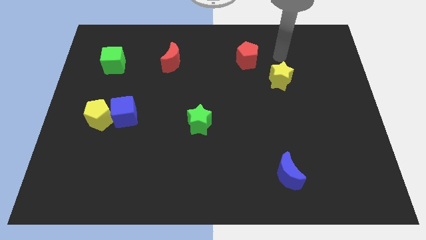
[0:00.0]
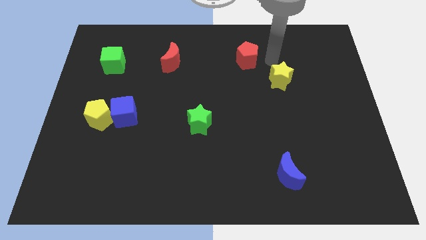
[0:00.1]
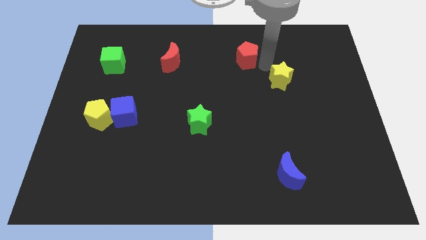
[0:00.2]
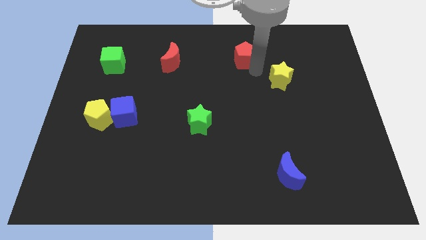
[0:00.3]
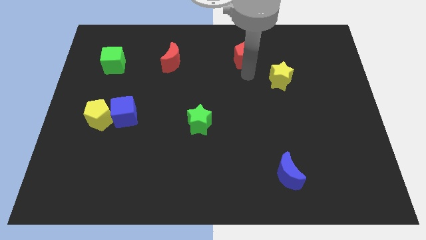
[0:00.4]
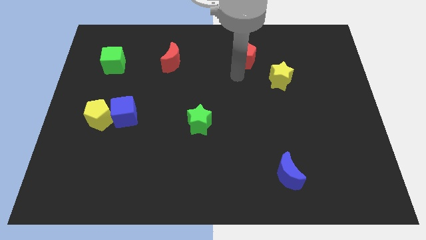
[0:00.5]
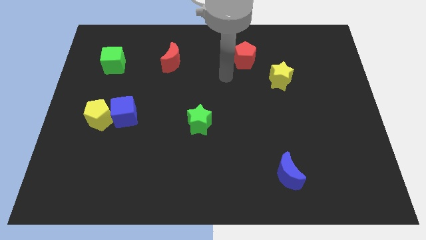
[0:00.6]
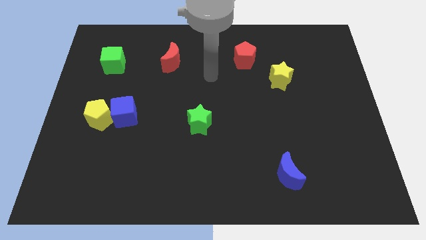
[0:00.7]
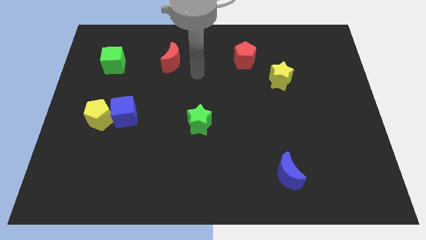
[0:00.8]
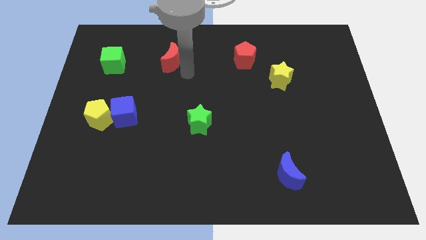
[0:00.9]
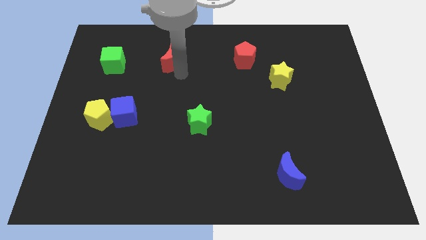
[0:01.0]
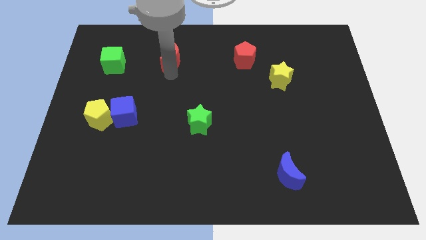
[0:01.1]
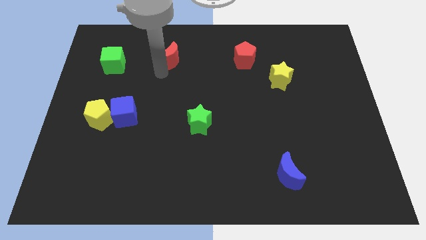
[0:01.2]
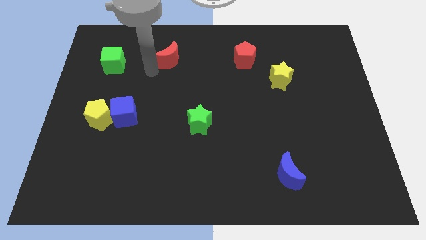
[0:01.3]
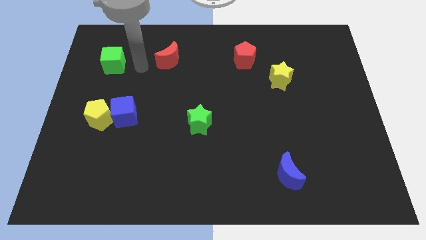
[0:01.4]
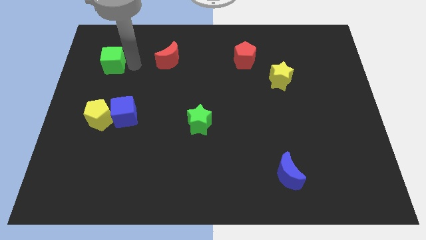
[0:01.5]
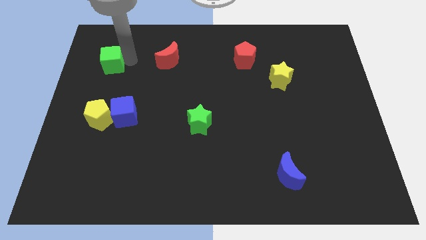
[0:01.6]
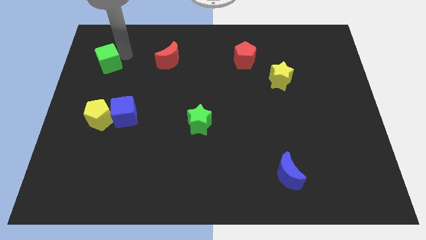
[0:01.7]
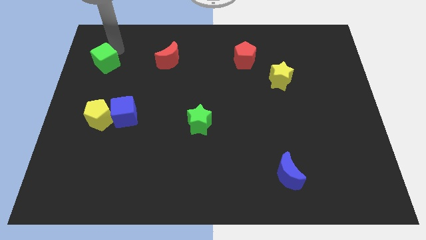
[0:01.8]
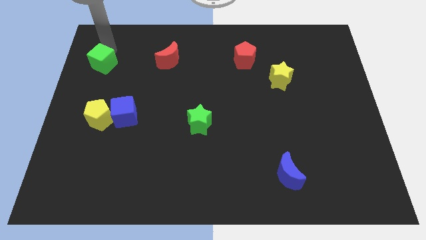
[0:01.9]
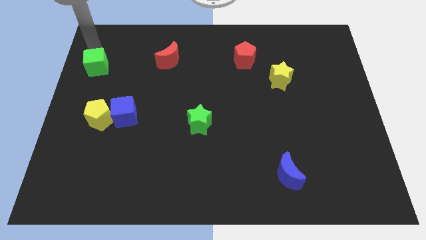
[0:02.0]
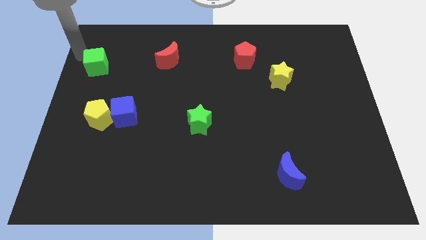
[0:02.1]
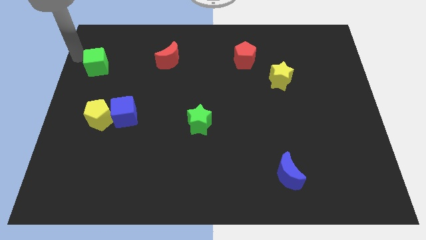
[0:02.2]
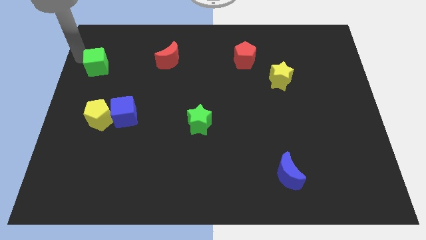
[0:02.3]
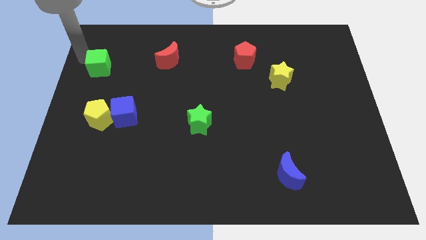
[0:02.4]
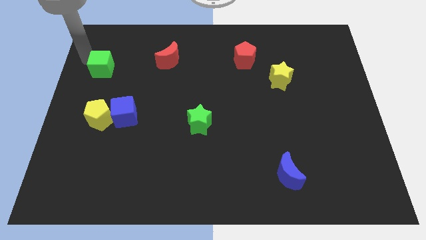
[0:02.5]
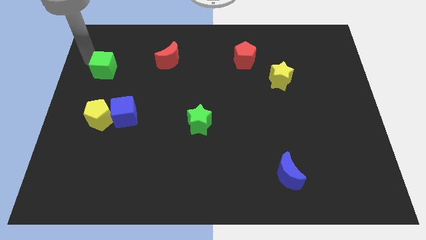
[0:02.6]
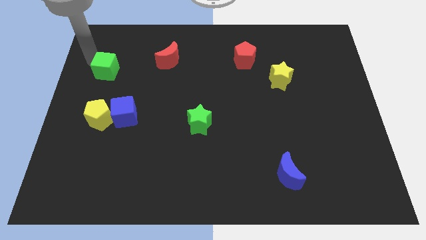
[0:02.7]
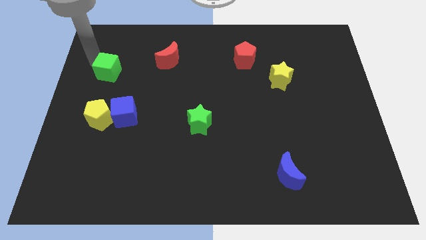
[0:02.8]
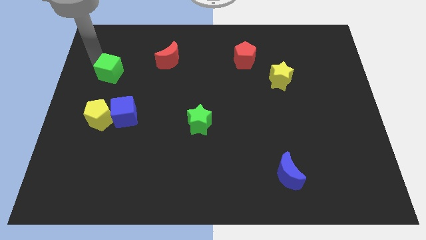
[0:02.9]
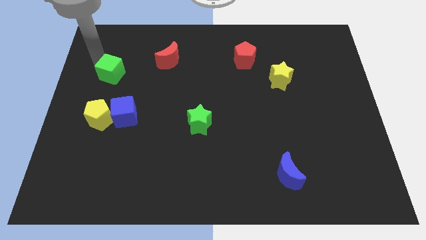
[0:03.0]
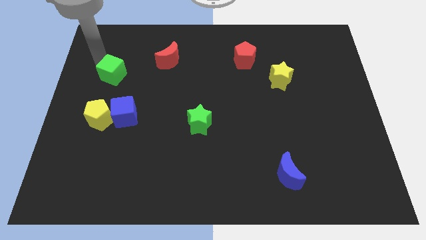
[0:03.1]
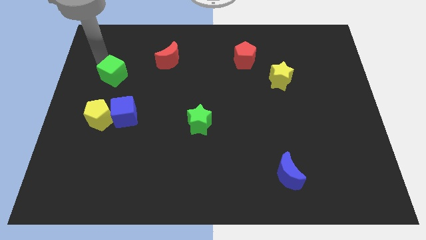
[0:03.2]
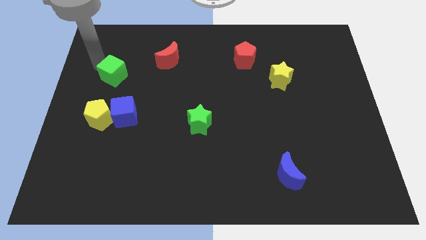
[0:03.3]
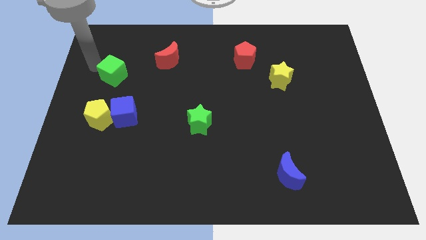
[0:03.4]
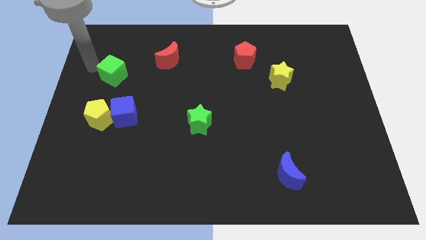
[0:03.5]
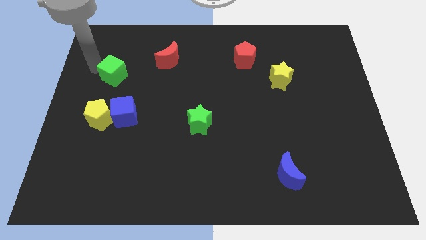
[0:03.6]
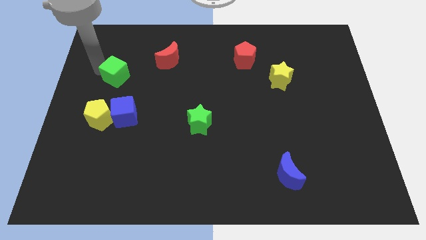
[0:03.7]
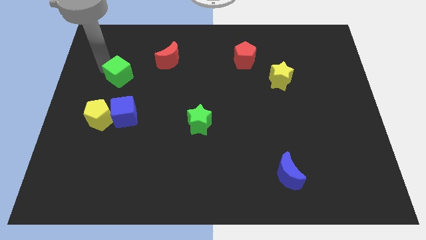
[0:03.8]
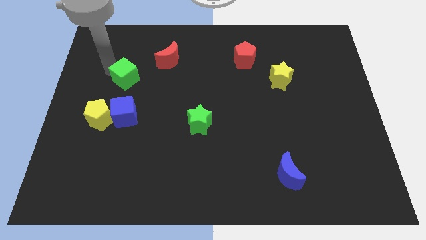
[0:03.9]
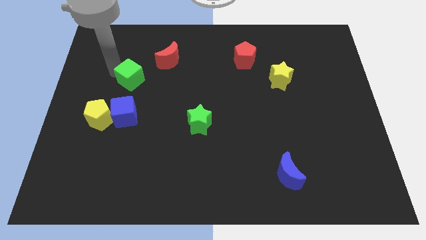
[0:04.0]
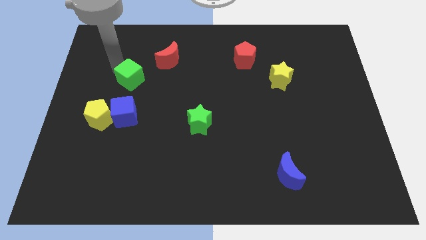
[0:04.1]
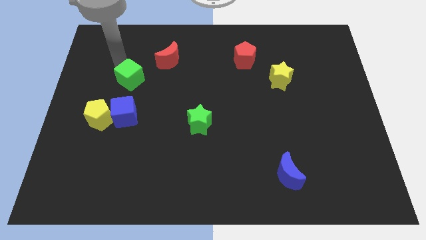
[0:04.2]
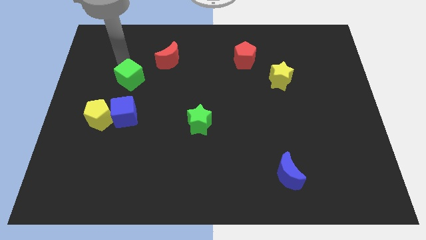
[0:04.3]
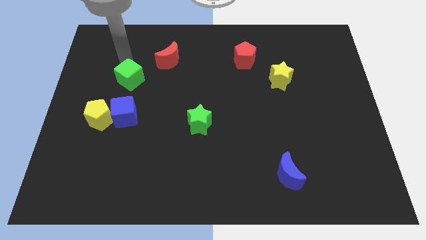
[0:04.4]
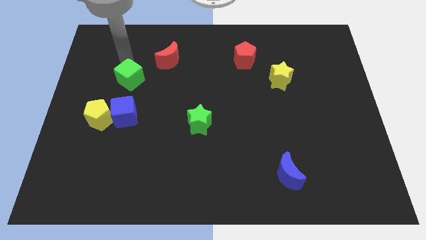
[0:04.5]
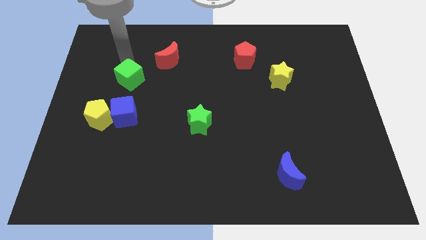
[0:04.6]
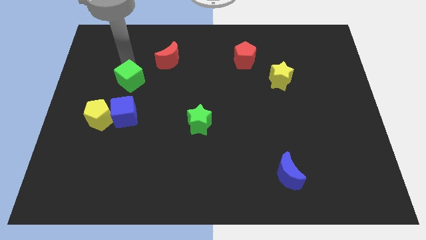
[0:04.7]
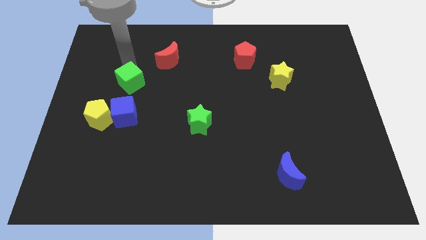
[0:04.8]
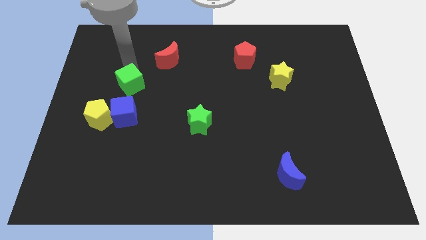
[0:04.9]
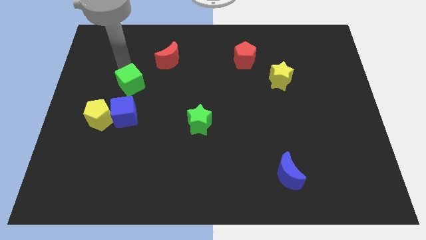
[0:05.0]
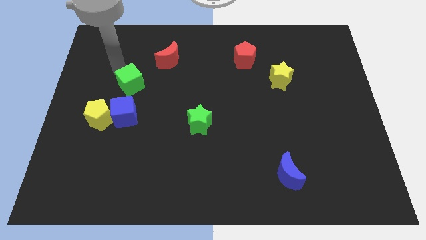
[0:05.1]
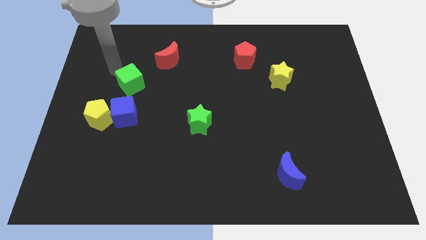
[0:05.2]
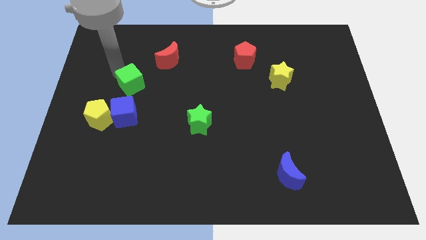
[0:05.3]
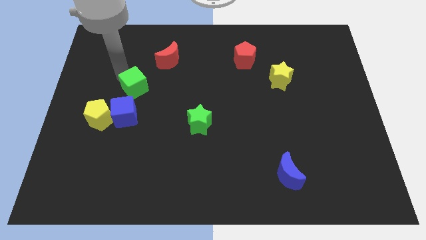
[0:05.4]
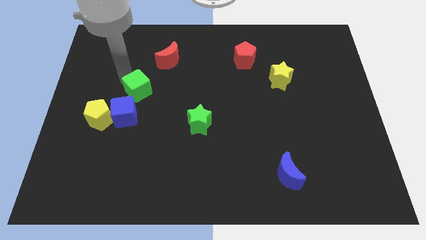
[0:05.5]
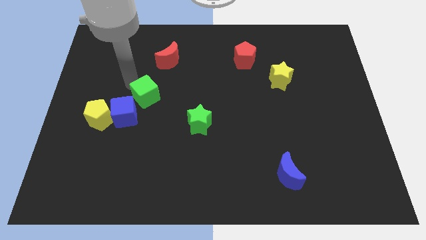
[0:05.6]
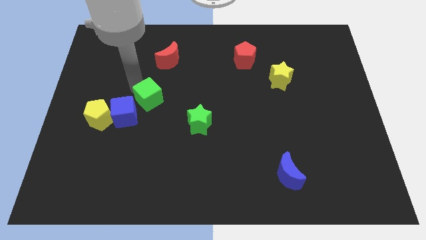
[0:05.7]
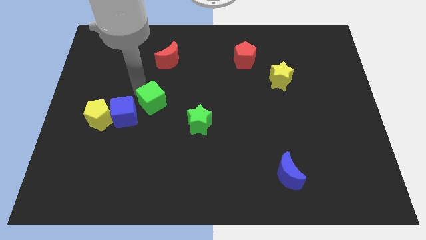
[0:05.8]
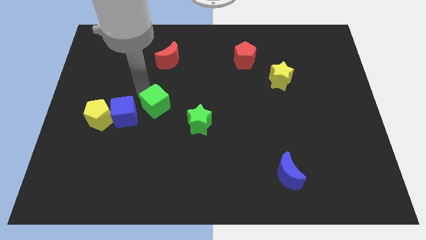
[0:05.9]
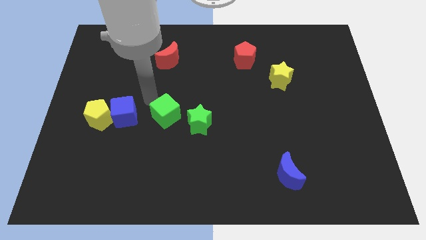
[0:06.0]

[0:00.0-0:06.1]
push the green cube down and right

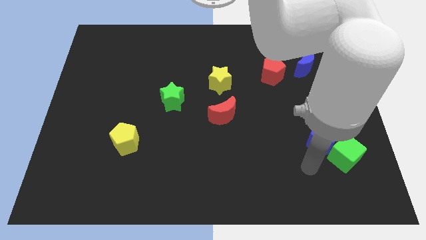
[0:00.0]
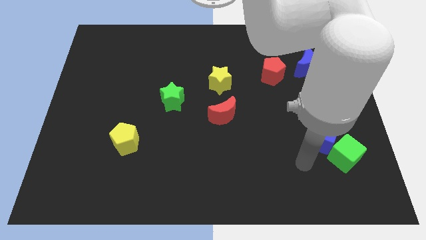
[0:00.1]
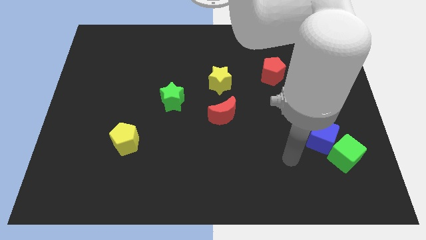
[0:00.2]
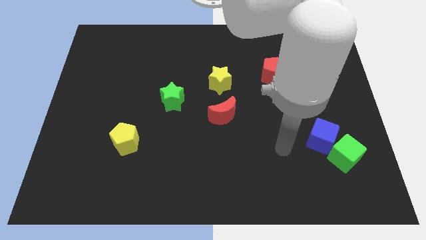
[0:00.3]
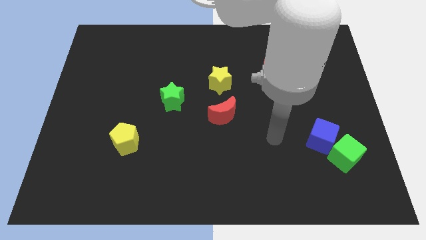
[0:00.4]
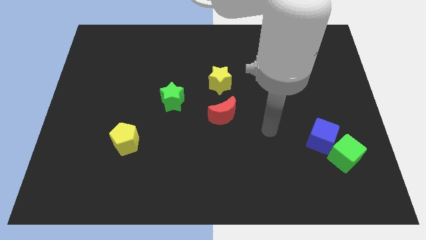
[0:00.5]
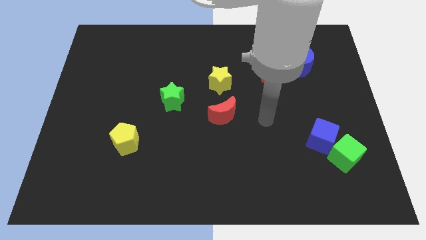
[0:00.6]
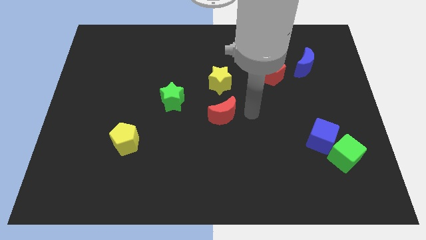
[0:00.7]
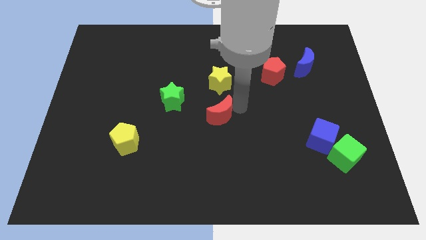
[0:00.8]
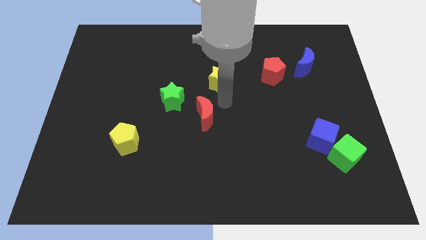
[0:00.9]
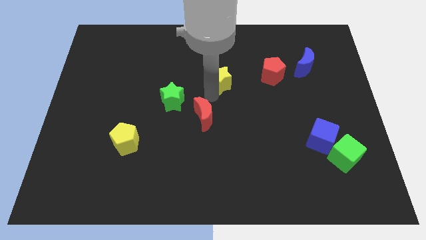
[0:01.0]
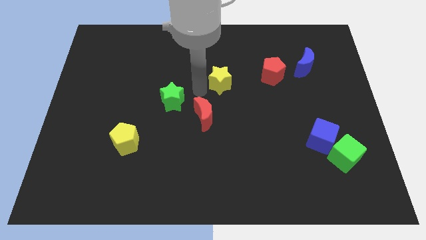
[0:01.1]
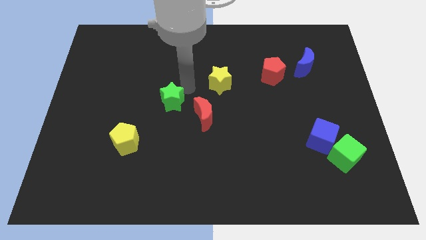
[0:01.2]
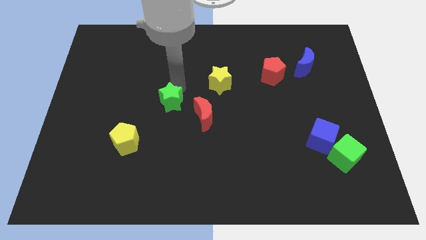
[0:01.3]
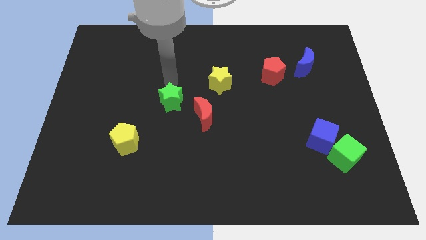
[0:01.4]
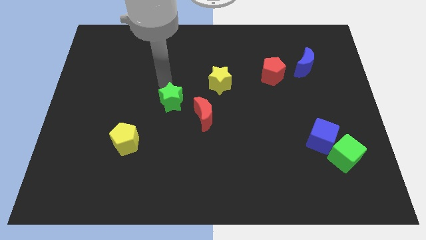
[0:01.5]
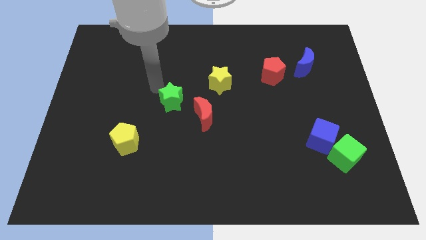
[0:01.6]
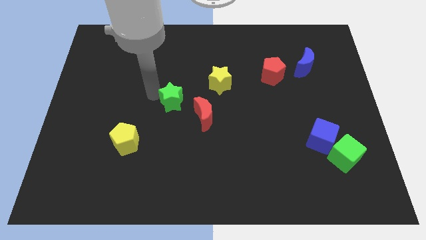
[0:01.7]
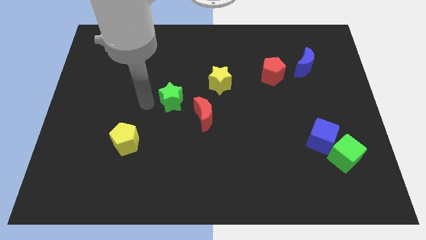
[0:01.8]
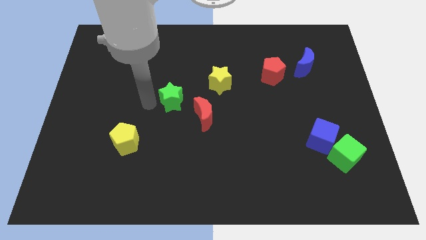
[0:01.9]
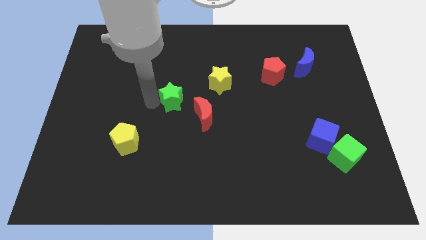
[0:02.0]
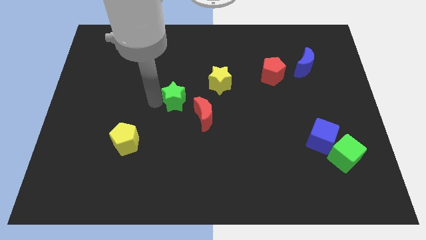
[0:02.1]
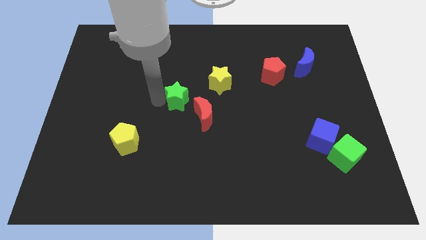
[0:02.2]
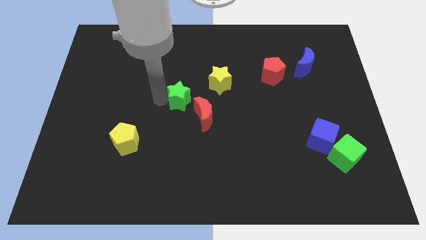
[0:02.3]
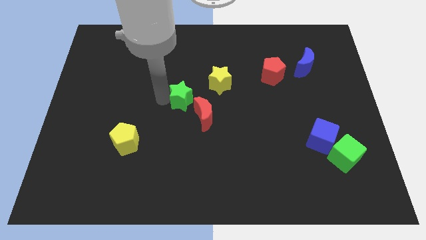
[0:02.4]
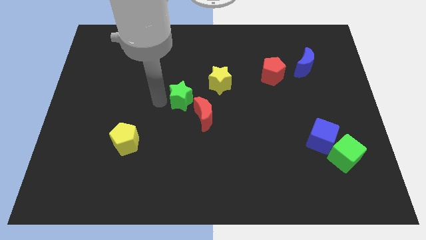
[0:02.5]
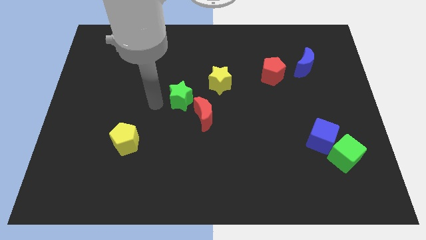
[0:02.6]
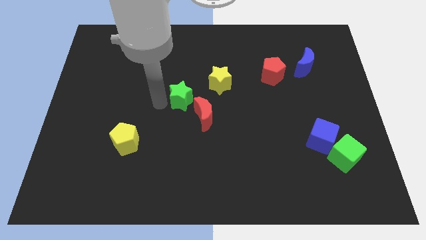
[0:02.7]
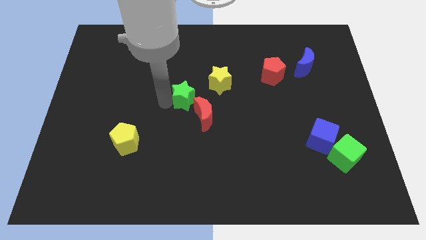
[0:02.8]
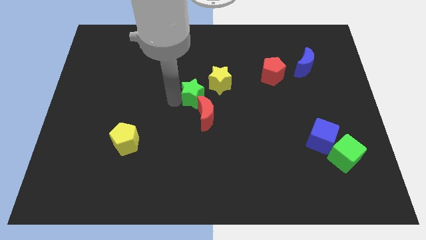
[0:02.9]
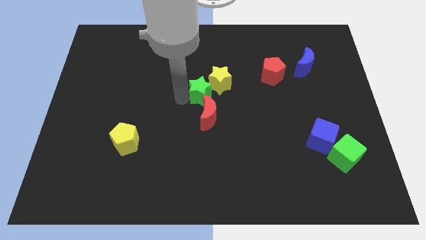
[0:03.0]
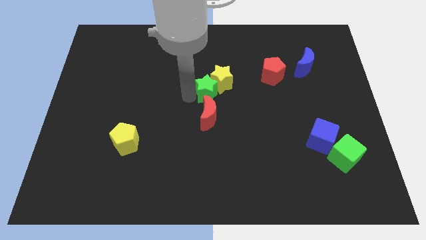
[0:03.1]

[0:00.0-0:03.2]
move the green star a little bit to the right
